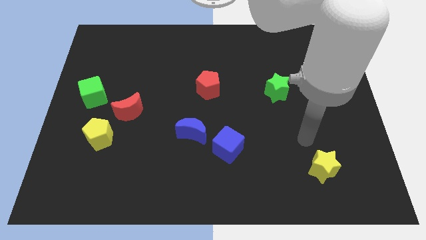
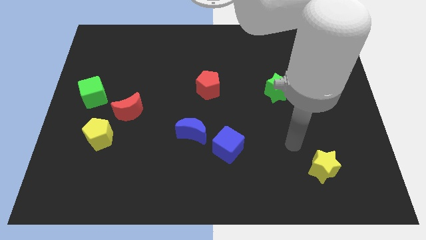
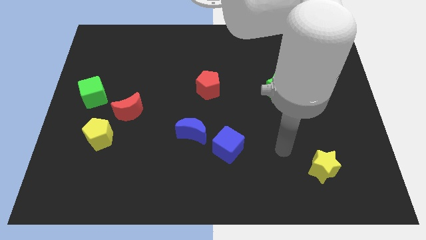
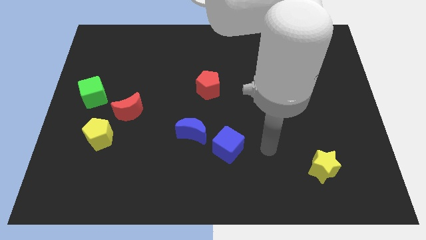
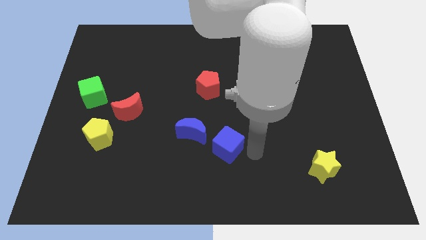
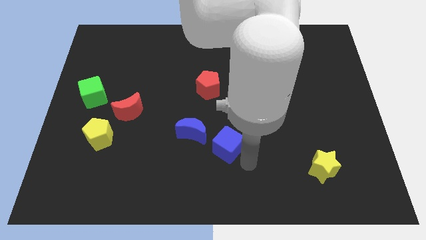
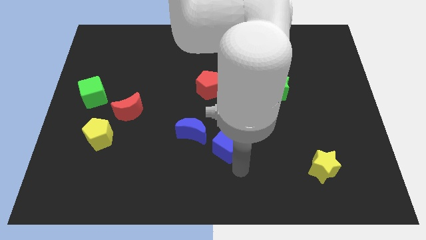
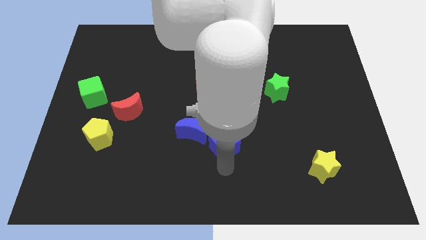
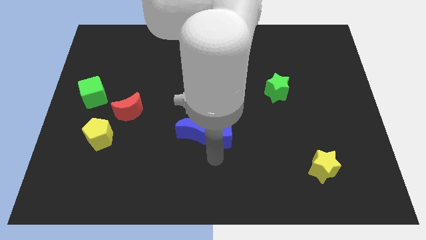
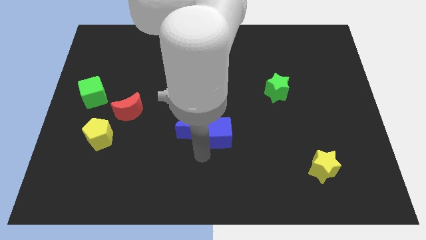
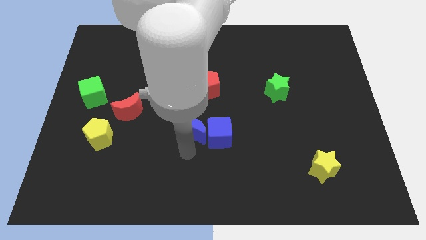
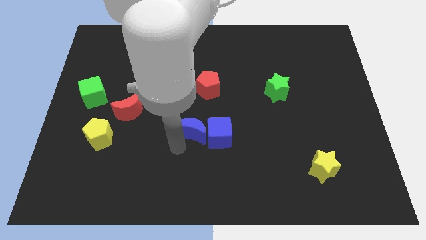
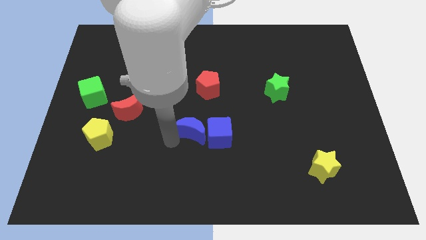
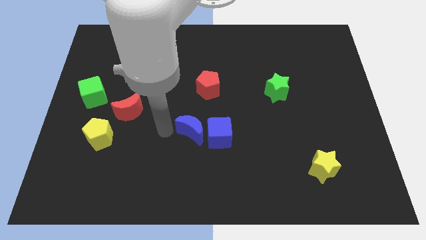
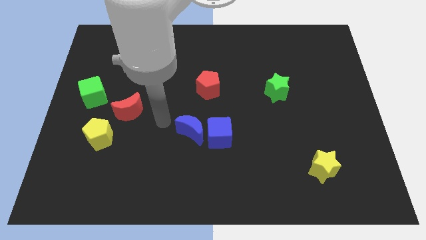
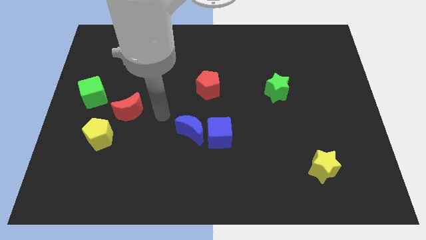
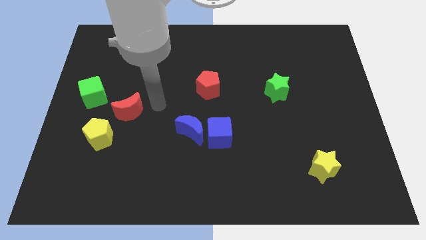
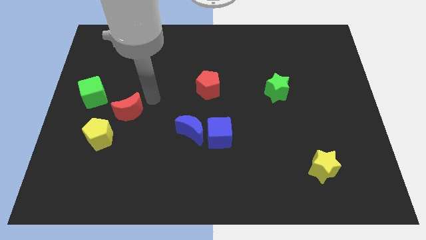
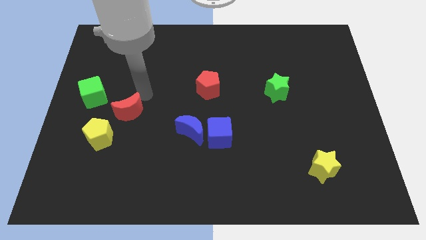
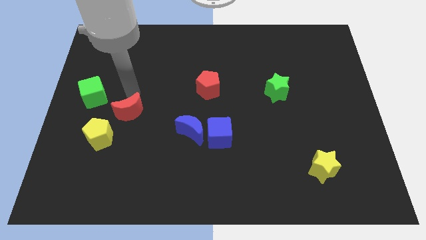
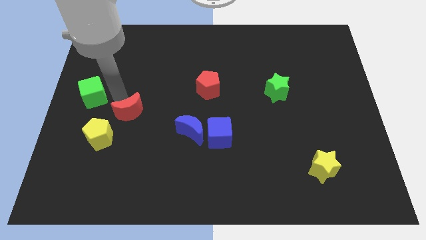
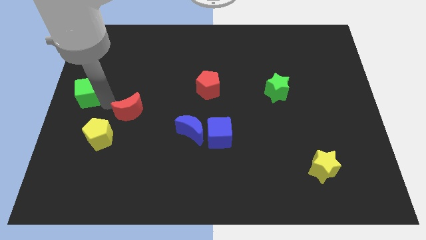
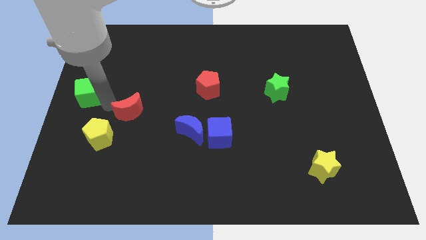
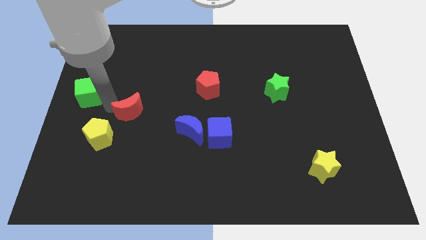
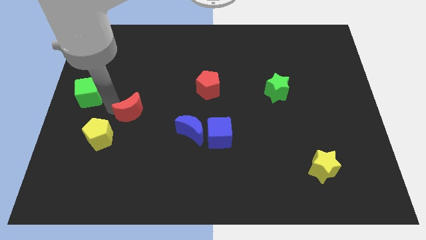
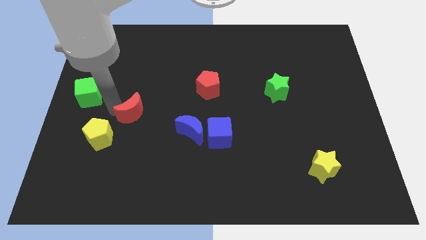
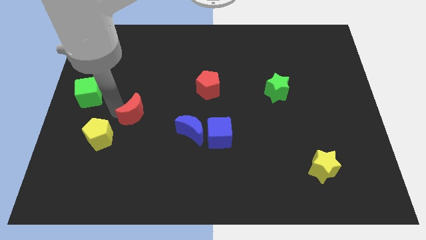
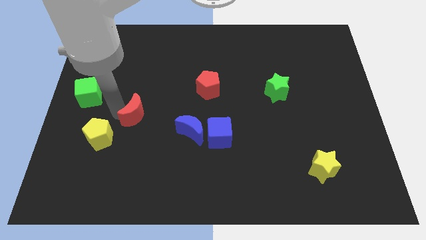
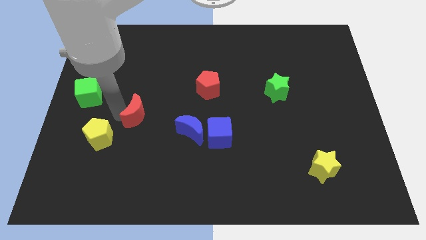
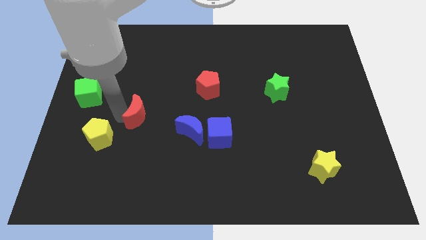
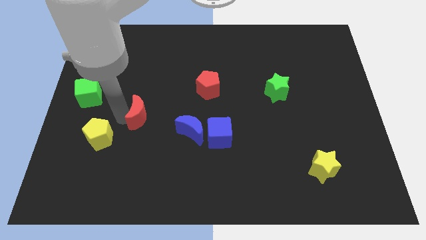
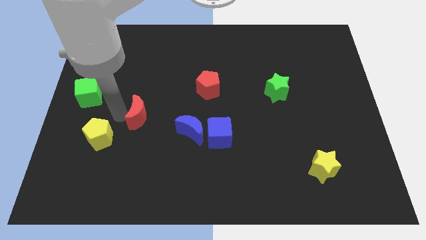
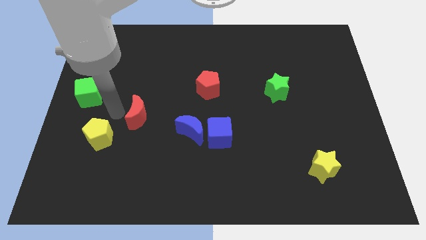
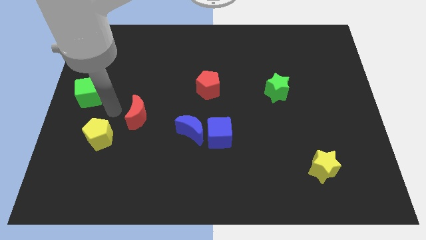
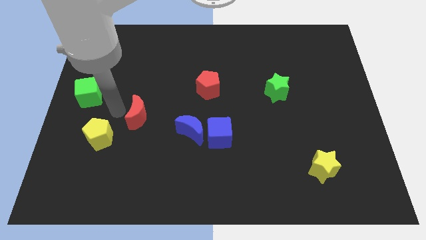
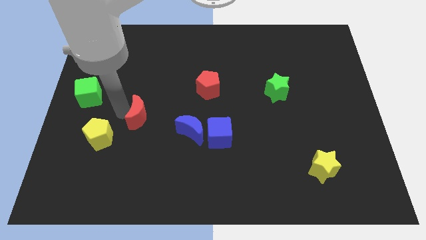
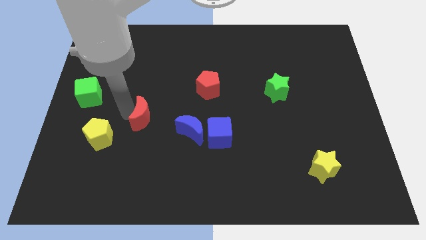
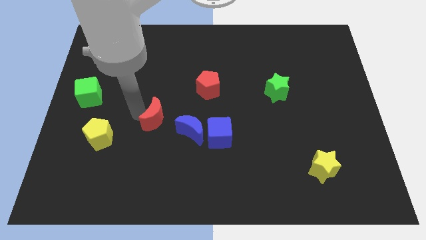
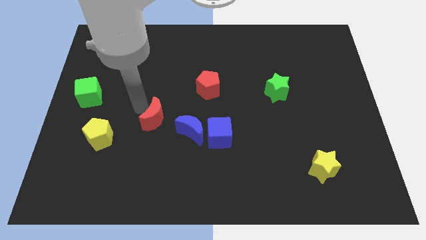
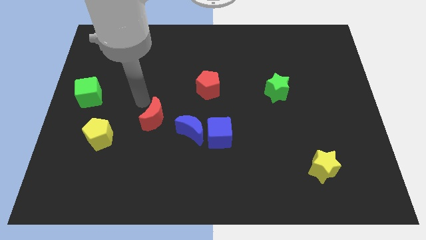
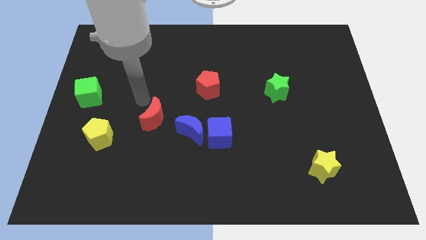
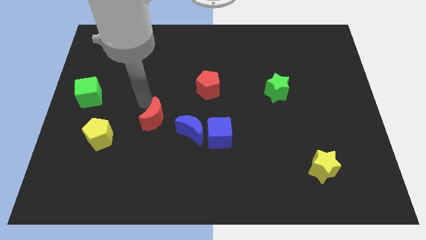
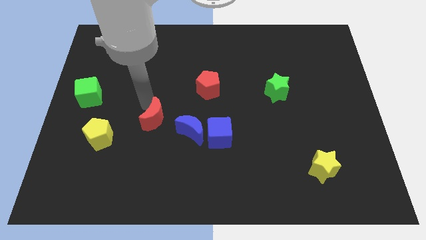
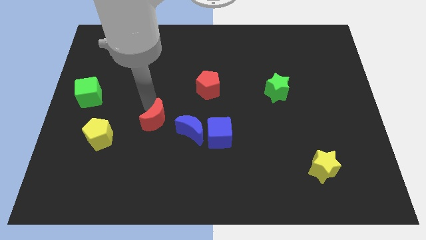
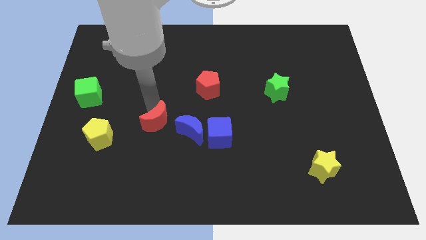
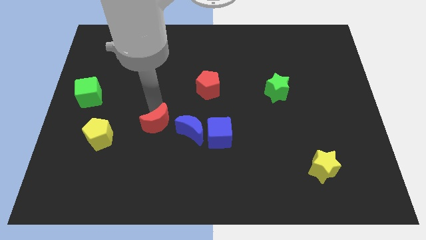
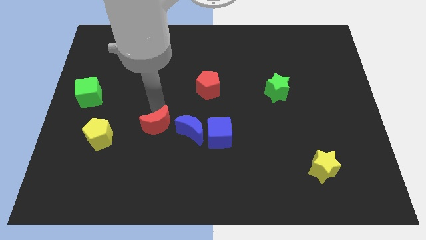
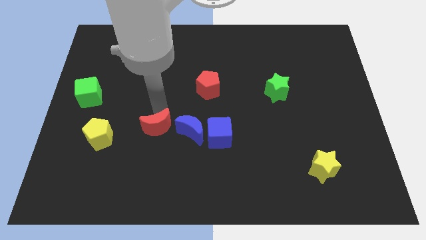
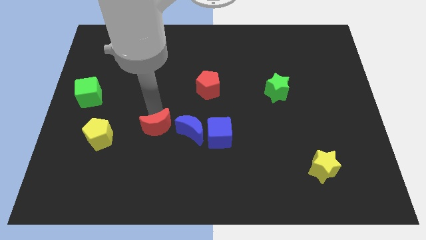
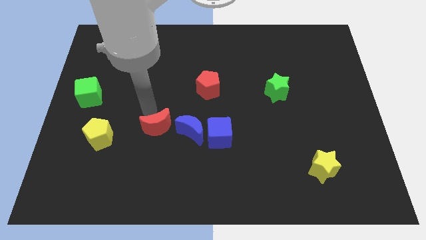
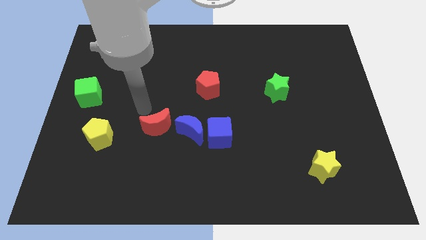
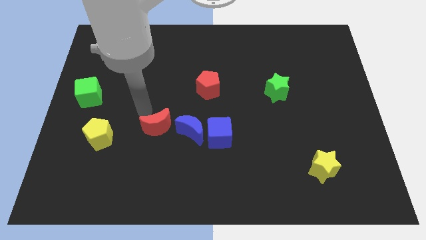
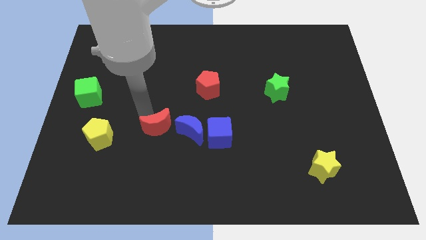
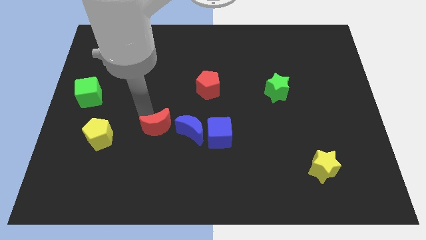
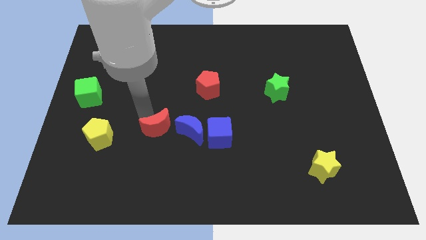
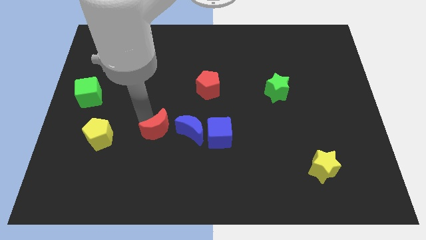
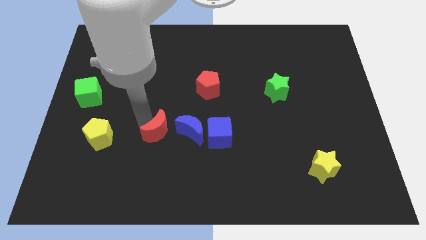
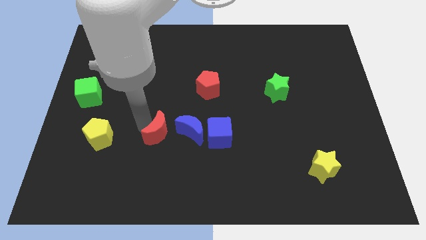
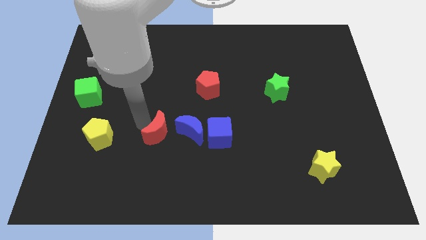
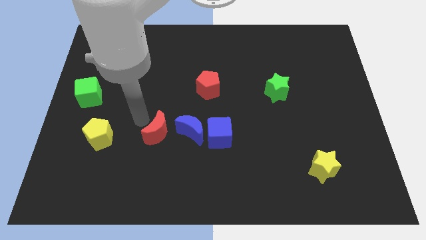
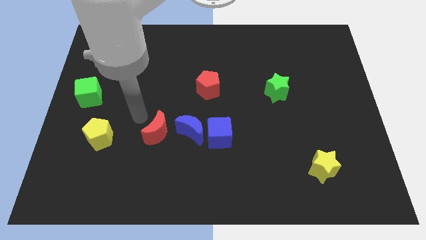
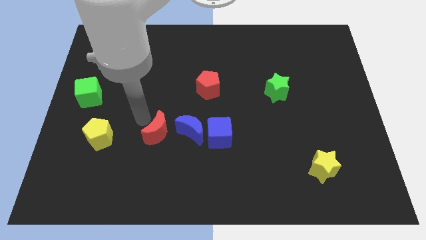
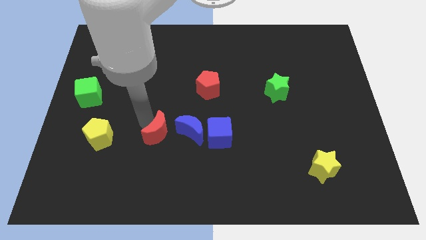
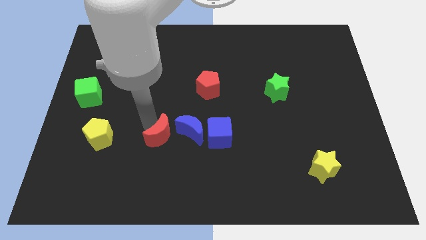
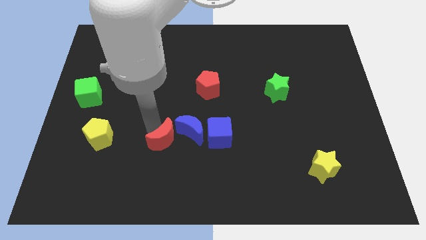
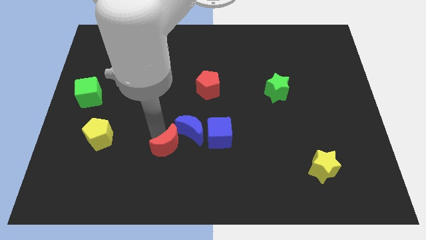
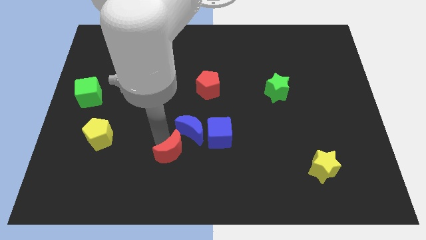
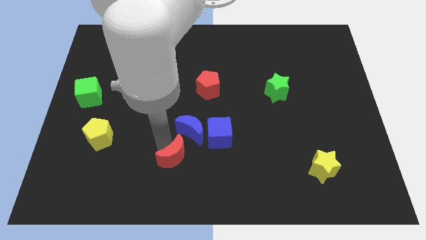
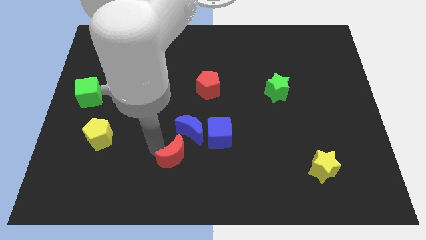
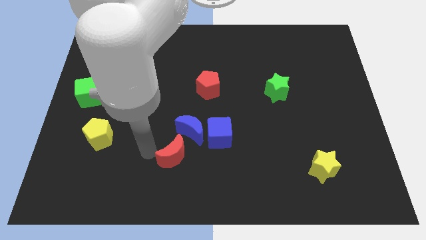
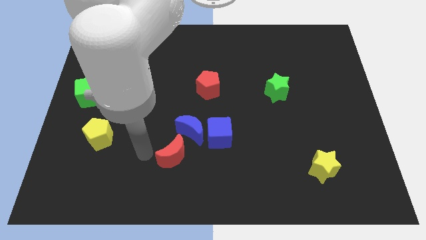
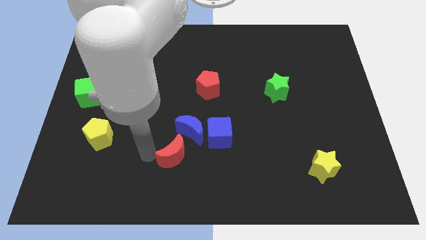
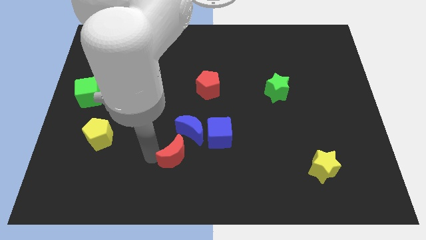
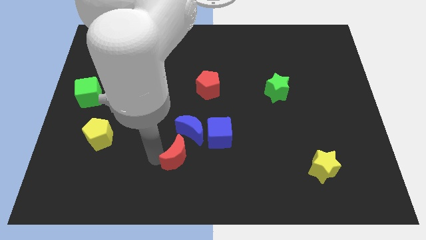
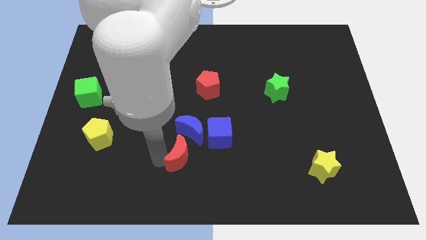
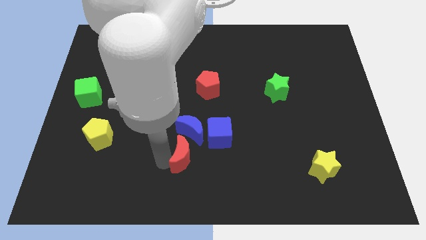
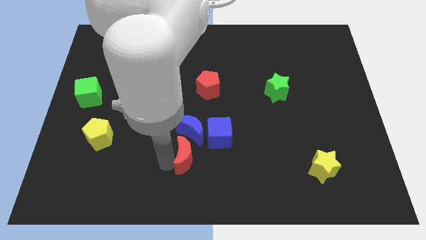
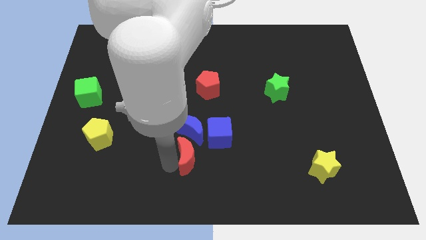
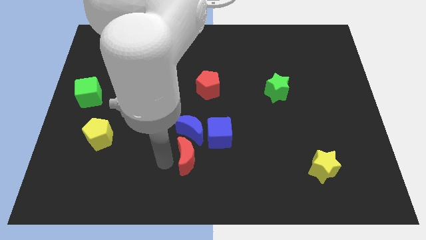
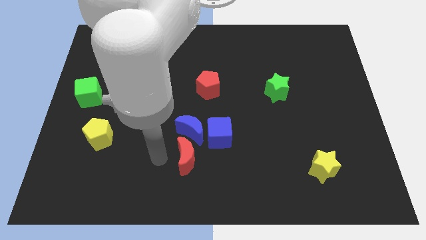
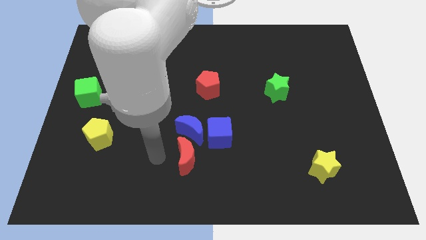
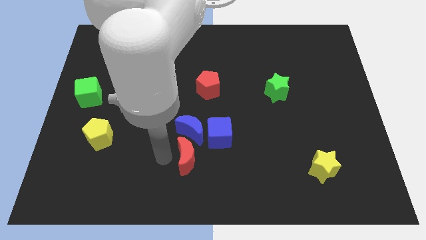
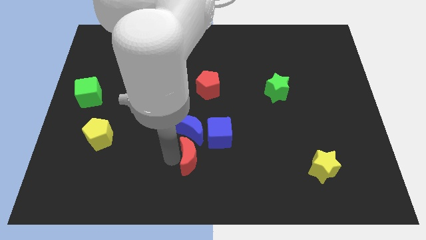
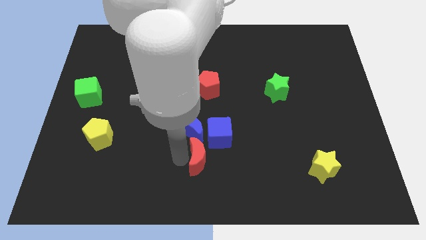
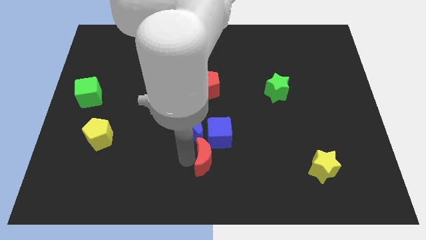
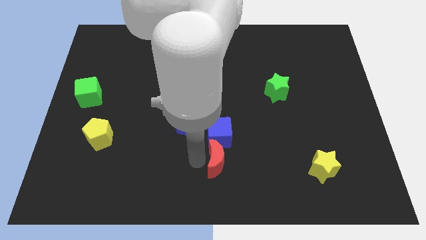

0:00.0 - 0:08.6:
put the red moon diagonally down and to the right of the blue cube
